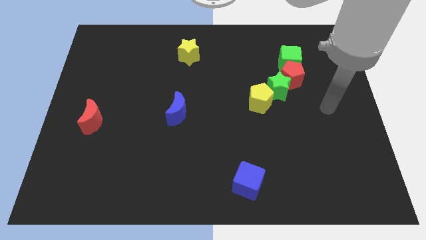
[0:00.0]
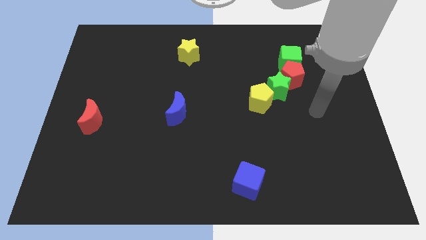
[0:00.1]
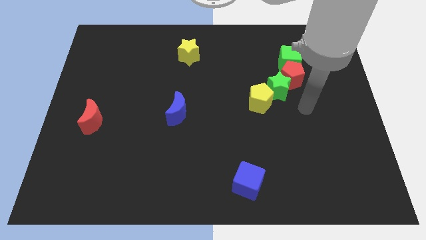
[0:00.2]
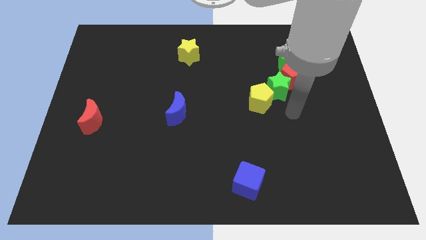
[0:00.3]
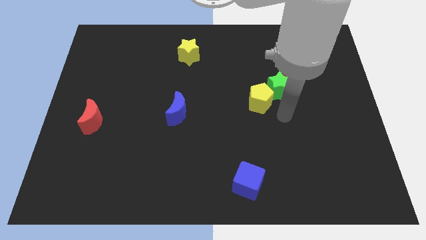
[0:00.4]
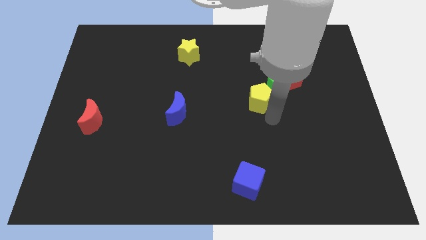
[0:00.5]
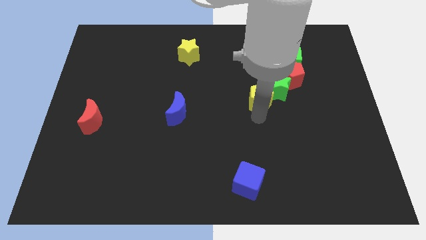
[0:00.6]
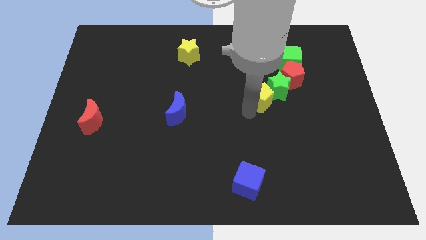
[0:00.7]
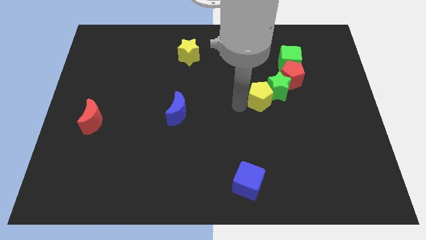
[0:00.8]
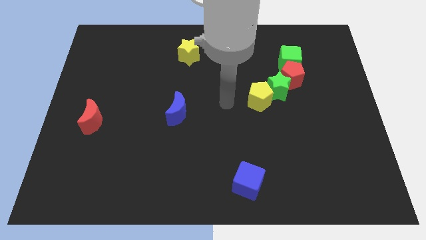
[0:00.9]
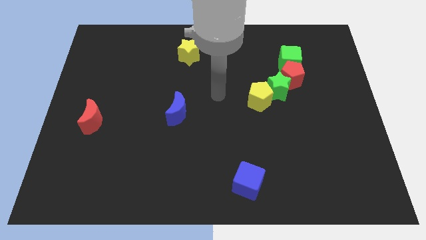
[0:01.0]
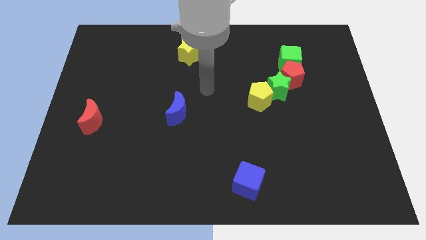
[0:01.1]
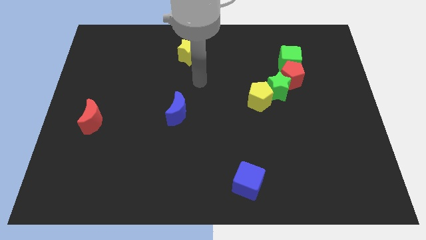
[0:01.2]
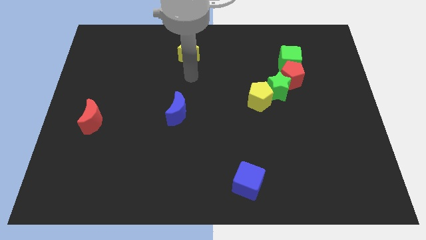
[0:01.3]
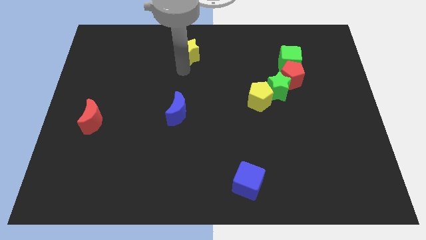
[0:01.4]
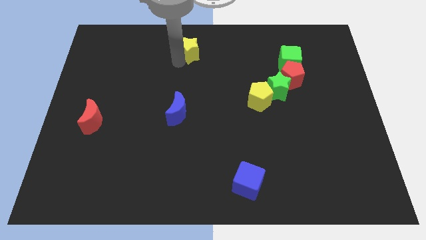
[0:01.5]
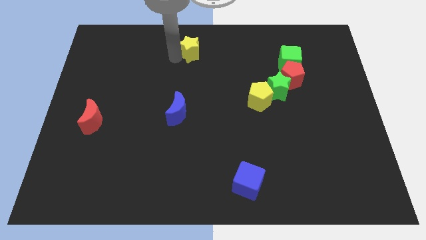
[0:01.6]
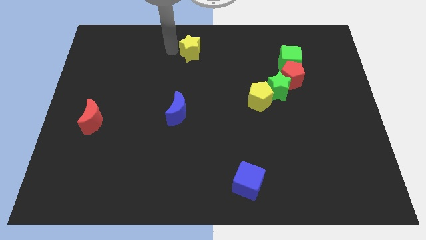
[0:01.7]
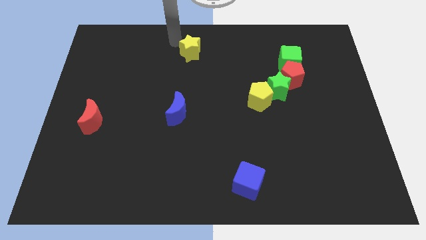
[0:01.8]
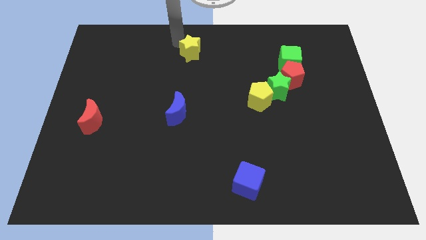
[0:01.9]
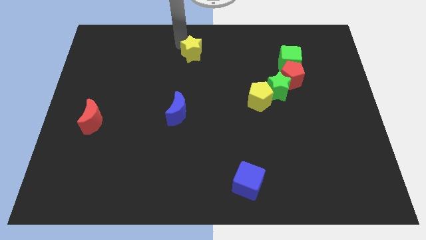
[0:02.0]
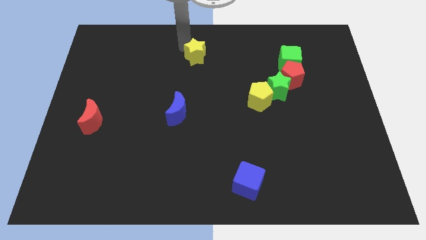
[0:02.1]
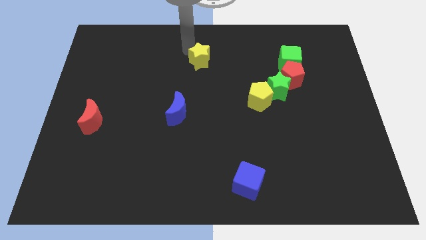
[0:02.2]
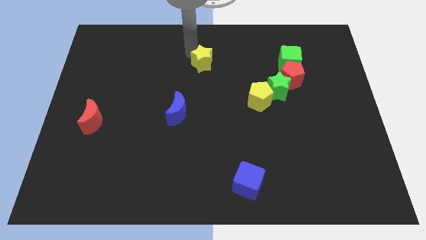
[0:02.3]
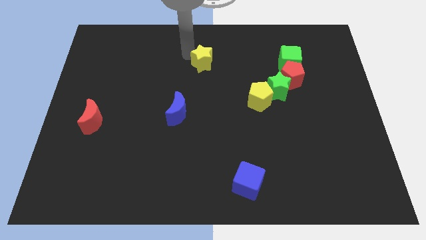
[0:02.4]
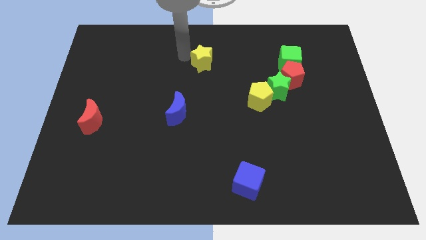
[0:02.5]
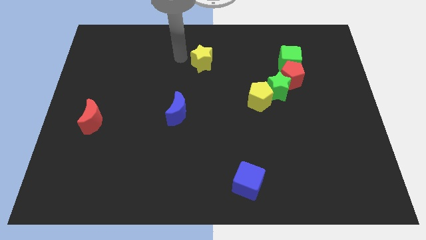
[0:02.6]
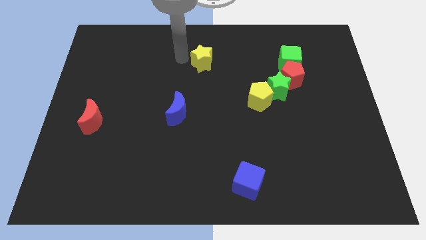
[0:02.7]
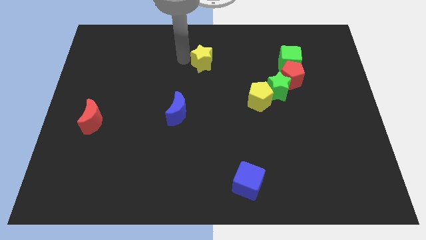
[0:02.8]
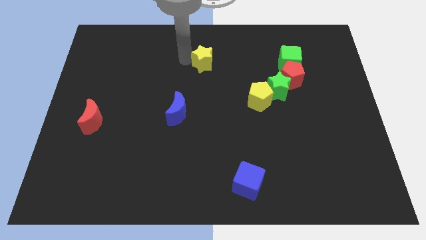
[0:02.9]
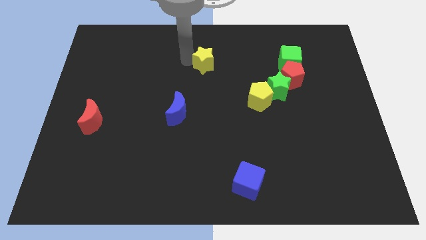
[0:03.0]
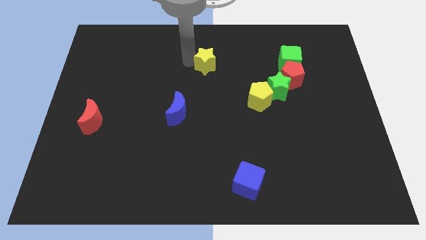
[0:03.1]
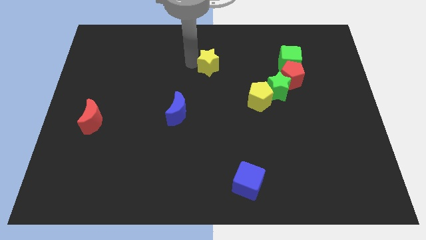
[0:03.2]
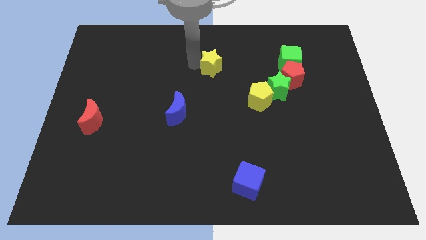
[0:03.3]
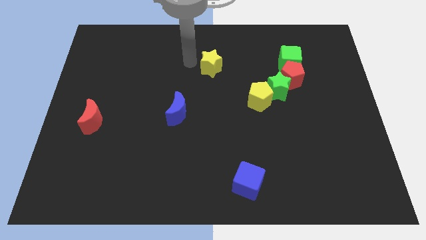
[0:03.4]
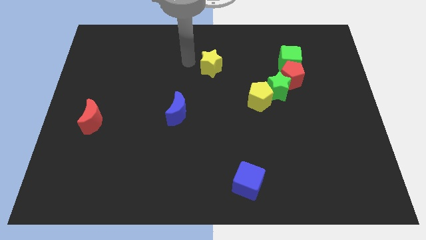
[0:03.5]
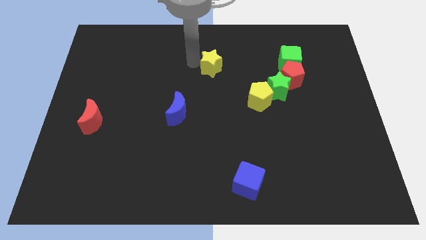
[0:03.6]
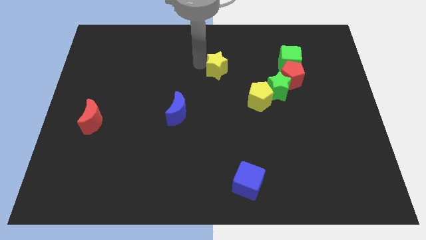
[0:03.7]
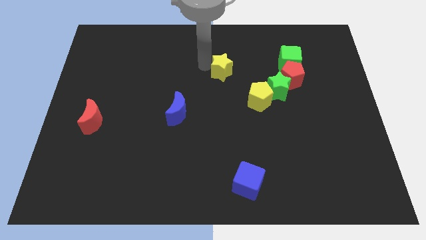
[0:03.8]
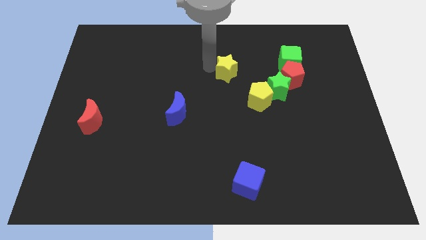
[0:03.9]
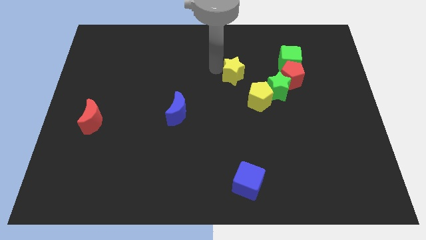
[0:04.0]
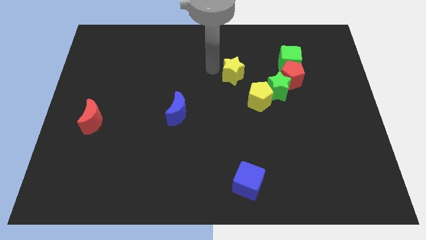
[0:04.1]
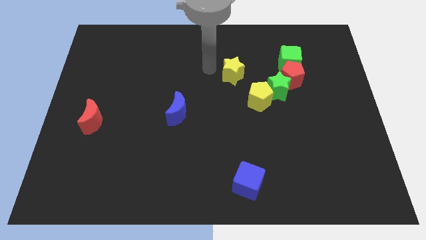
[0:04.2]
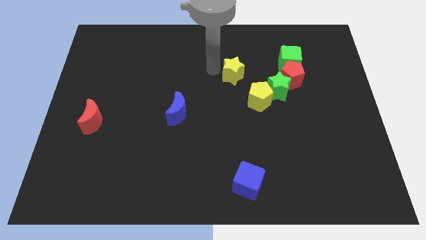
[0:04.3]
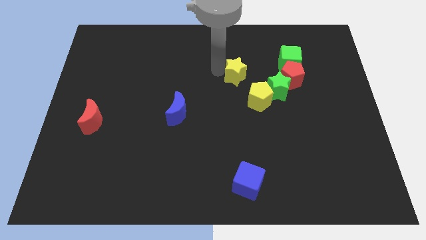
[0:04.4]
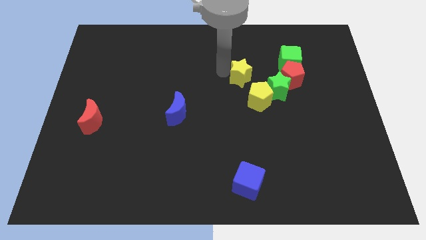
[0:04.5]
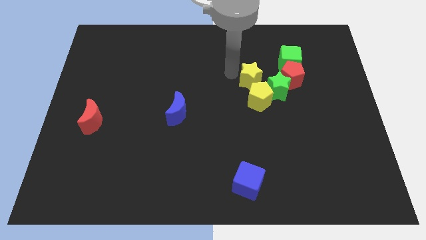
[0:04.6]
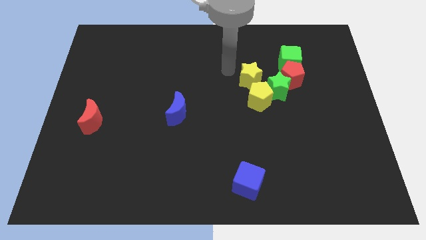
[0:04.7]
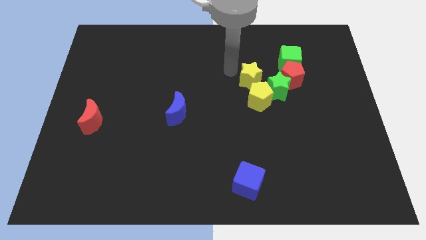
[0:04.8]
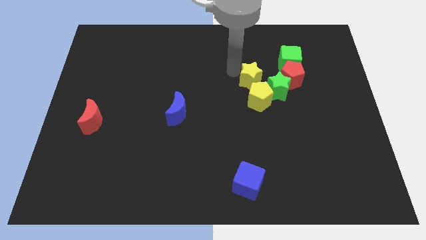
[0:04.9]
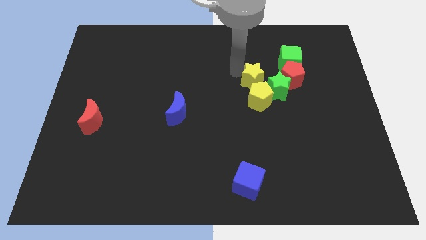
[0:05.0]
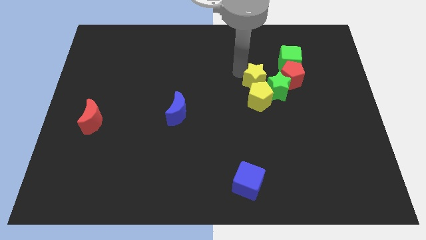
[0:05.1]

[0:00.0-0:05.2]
push the yellow star next to the green star

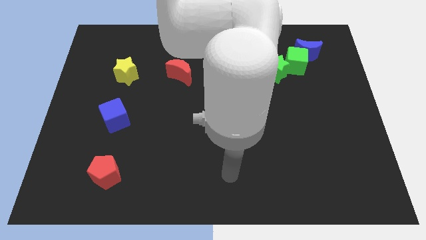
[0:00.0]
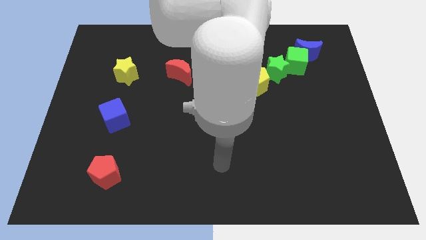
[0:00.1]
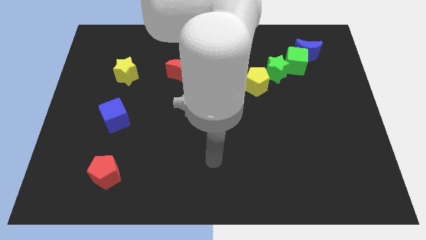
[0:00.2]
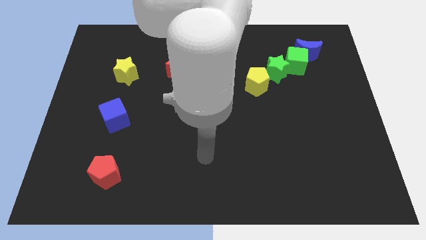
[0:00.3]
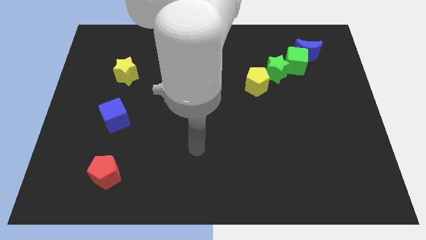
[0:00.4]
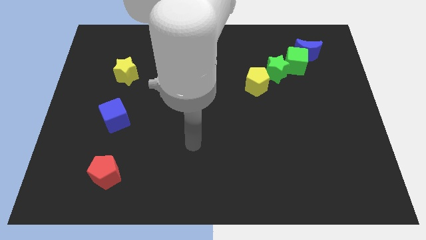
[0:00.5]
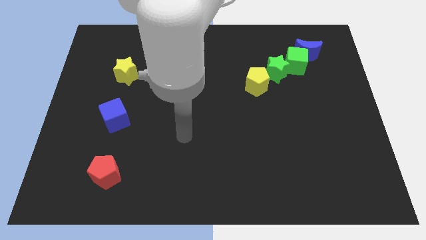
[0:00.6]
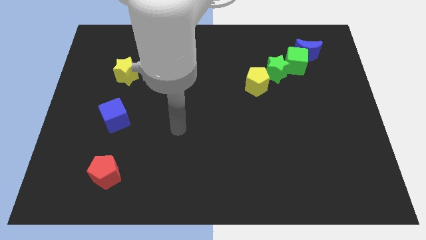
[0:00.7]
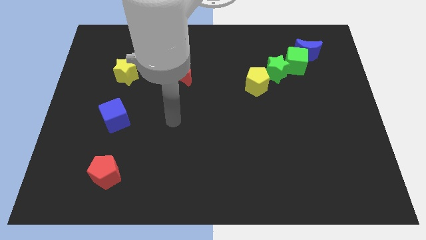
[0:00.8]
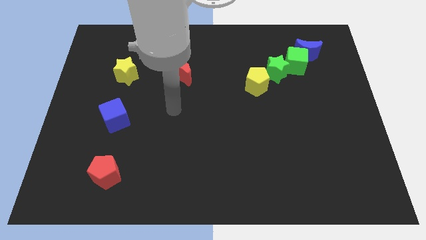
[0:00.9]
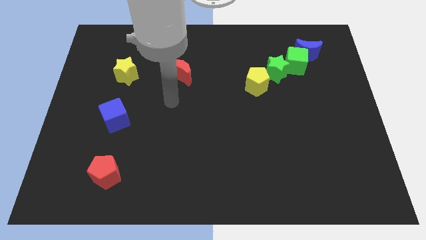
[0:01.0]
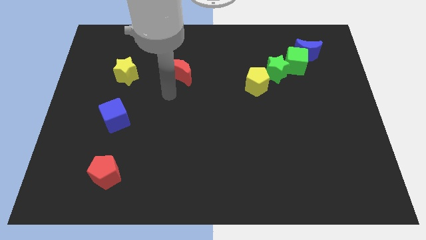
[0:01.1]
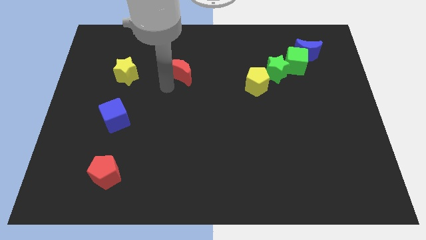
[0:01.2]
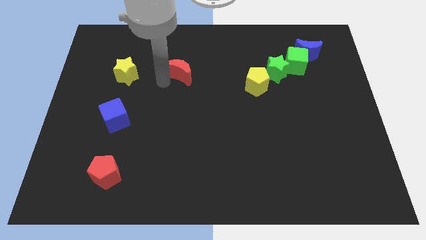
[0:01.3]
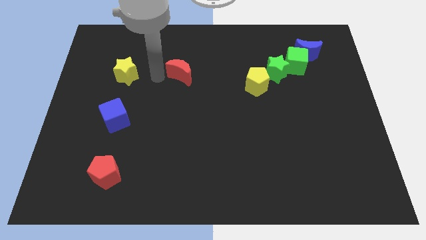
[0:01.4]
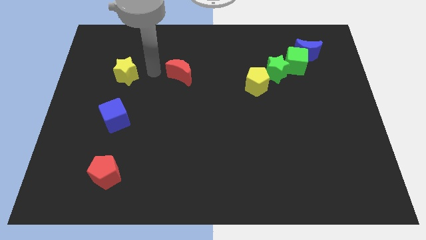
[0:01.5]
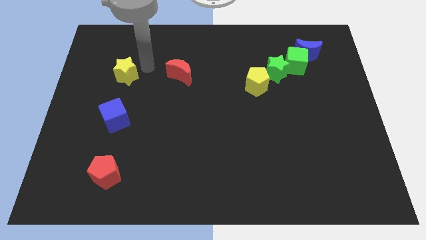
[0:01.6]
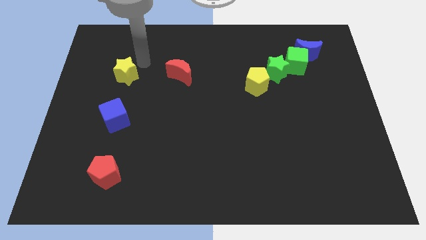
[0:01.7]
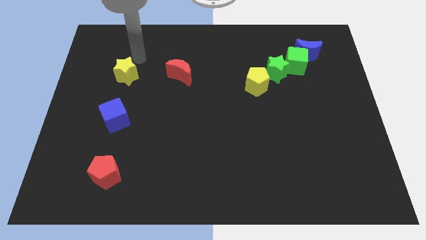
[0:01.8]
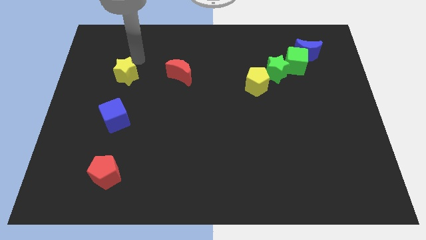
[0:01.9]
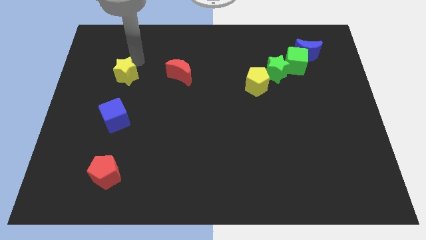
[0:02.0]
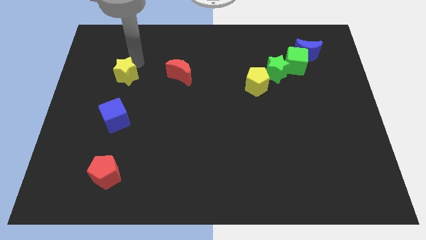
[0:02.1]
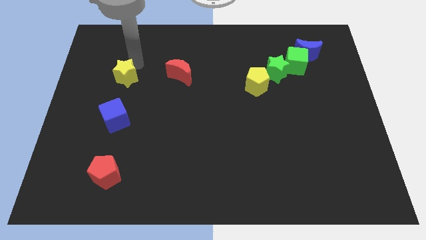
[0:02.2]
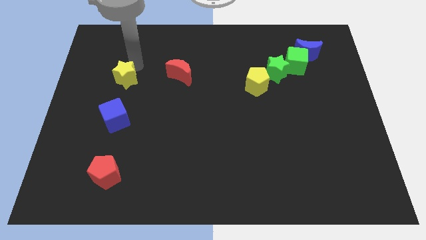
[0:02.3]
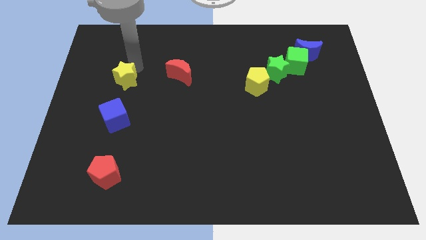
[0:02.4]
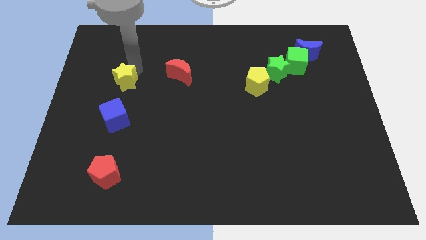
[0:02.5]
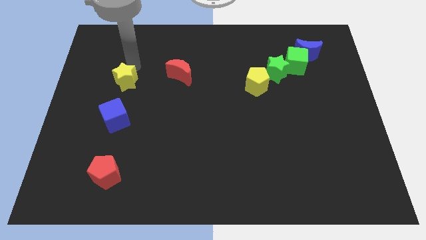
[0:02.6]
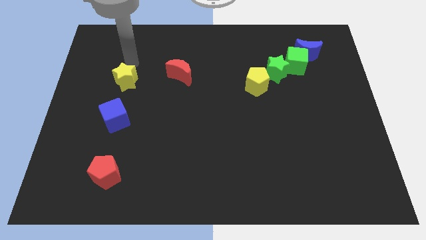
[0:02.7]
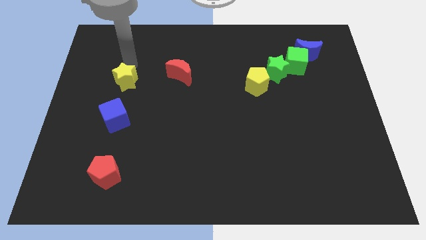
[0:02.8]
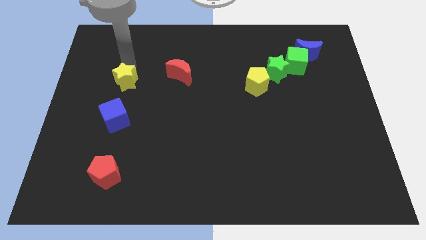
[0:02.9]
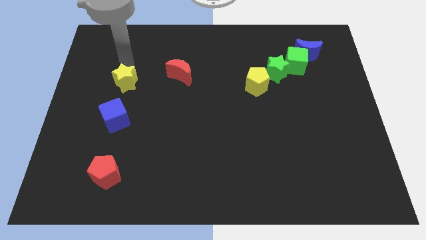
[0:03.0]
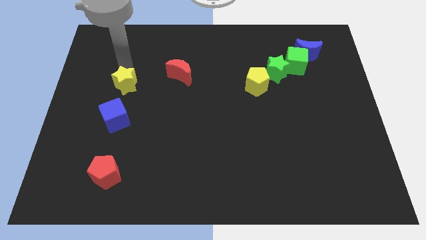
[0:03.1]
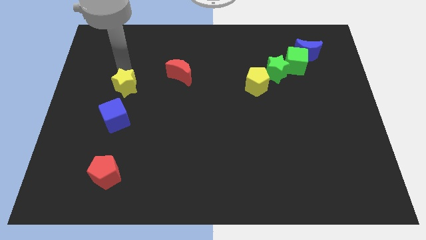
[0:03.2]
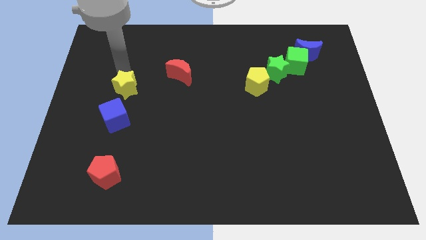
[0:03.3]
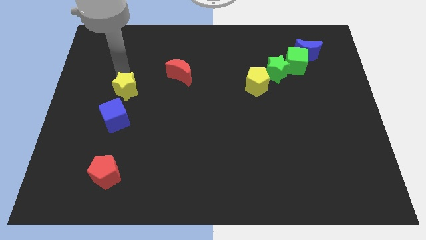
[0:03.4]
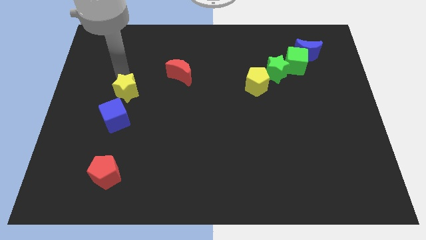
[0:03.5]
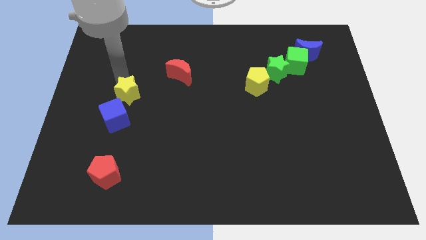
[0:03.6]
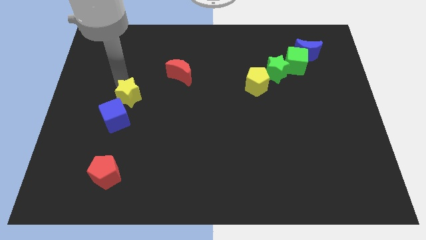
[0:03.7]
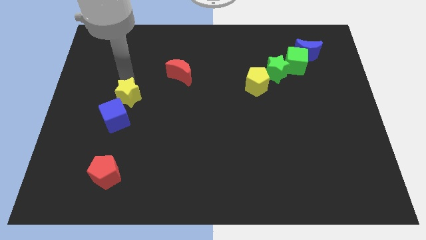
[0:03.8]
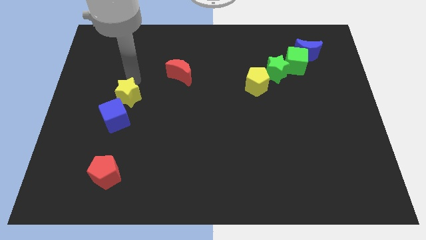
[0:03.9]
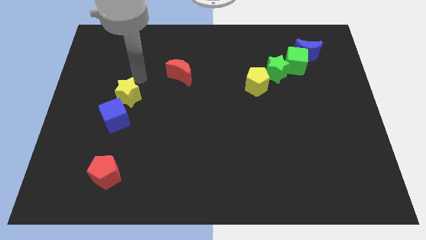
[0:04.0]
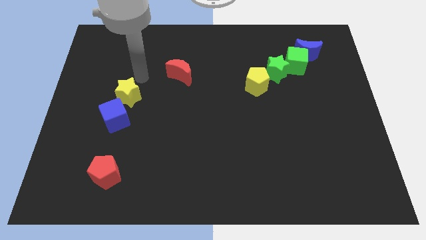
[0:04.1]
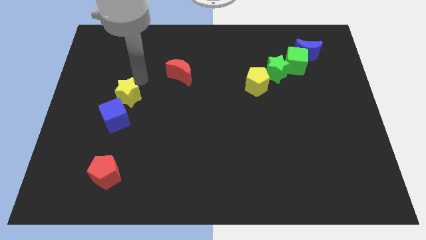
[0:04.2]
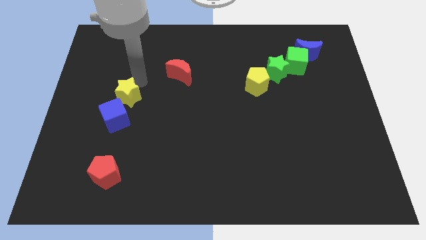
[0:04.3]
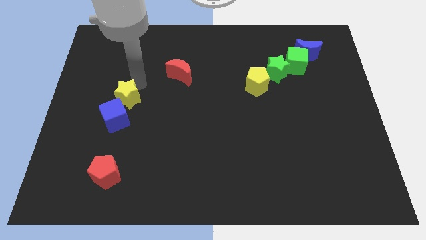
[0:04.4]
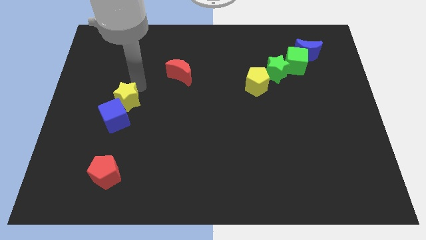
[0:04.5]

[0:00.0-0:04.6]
move the yellow star to the blue cube
